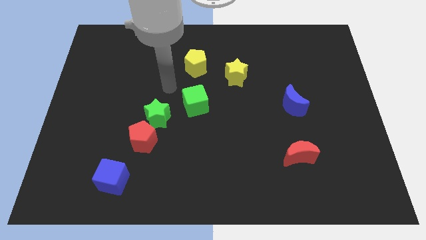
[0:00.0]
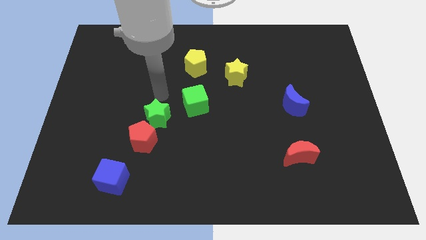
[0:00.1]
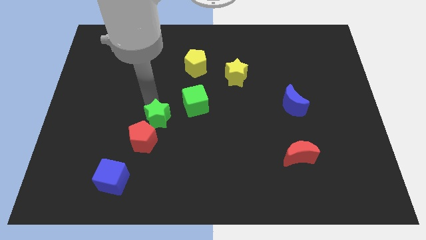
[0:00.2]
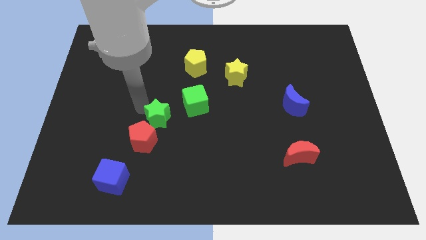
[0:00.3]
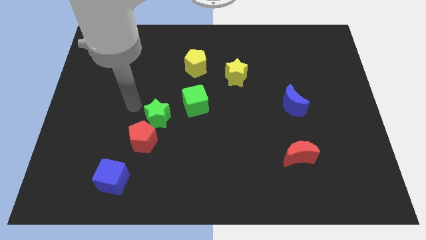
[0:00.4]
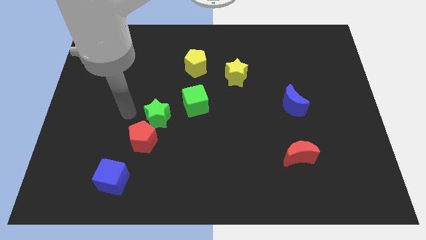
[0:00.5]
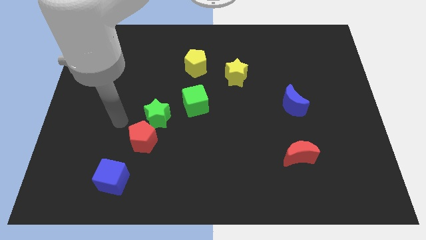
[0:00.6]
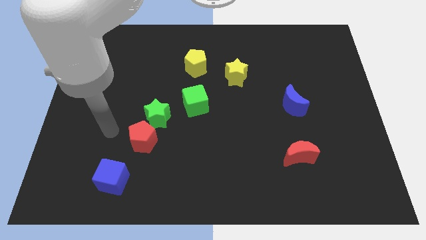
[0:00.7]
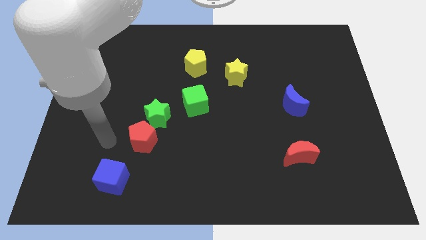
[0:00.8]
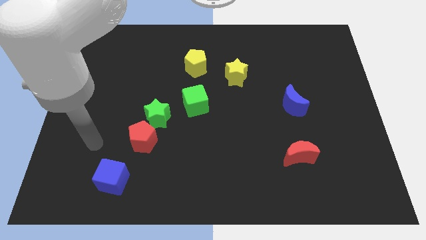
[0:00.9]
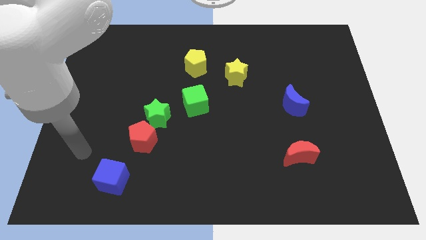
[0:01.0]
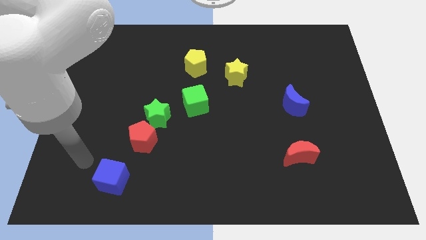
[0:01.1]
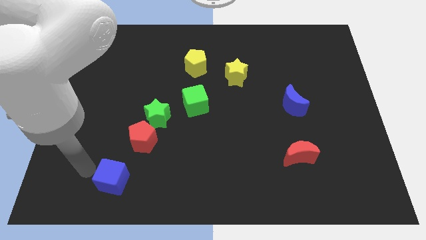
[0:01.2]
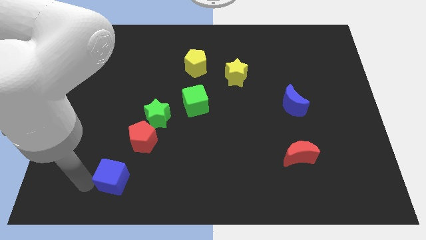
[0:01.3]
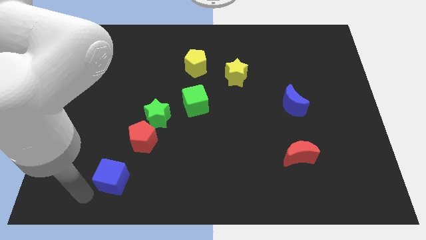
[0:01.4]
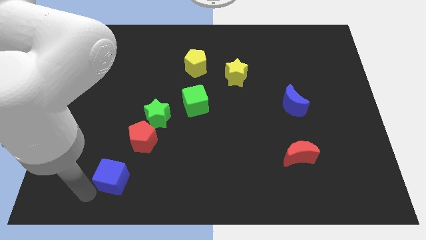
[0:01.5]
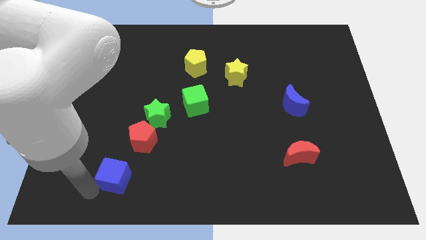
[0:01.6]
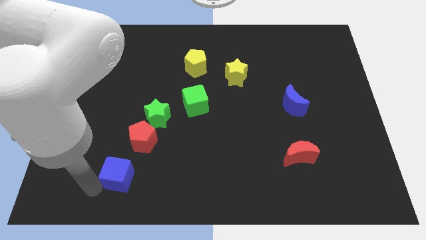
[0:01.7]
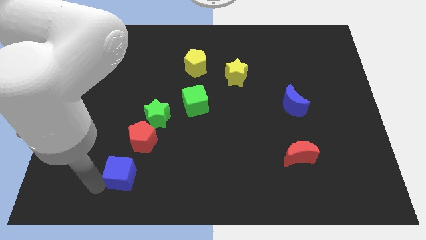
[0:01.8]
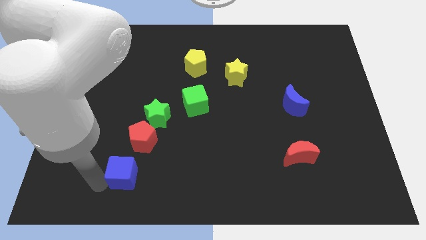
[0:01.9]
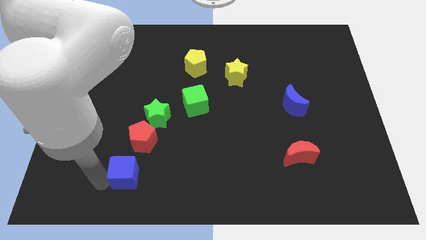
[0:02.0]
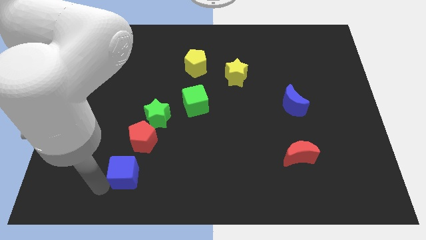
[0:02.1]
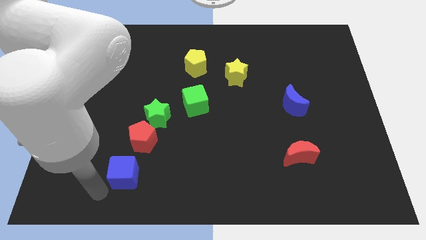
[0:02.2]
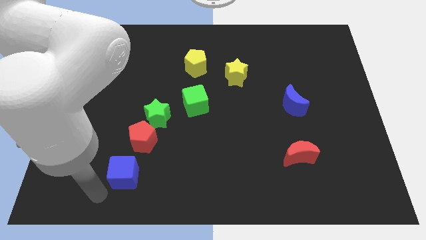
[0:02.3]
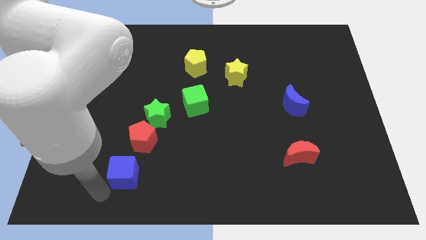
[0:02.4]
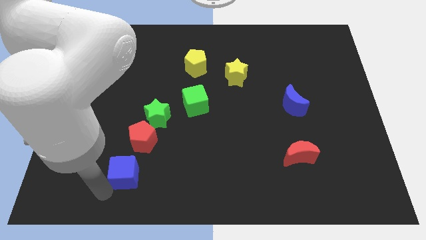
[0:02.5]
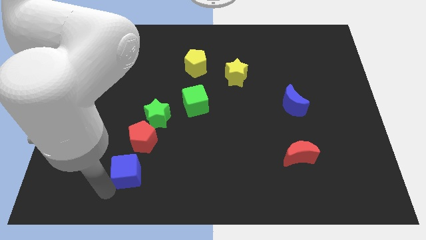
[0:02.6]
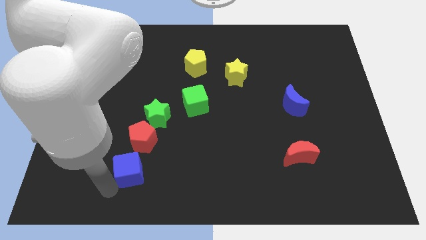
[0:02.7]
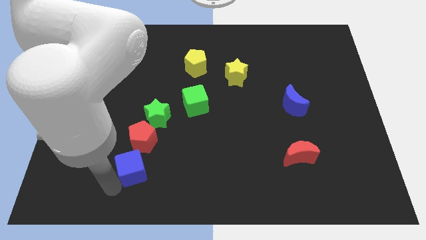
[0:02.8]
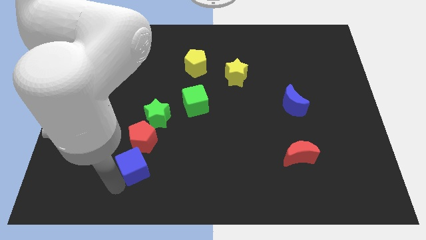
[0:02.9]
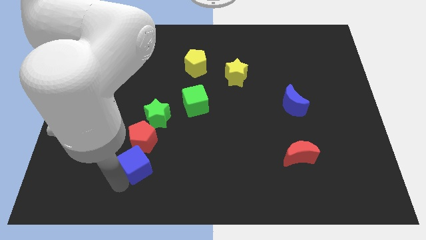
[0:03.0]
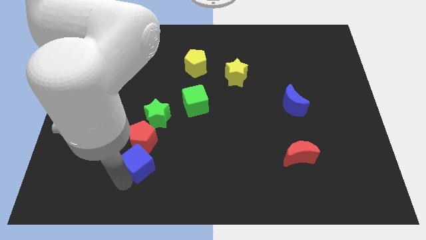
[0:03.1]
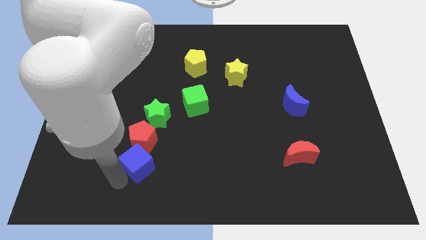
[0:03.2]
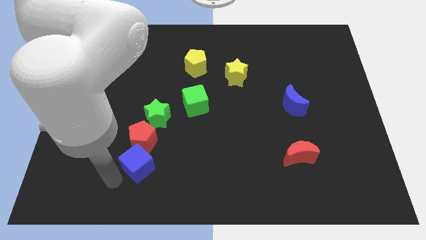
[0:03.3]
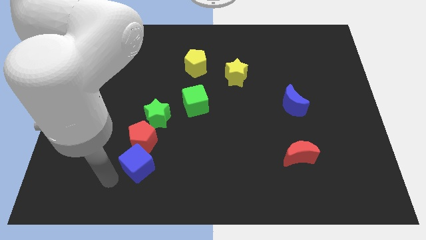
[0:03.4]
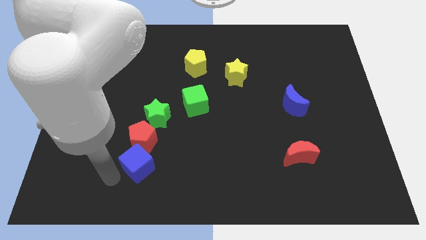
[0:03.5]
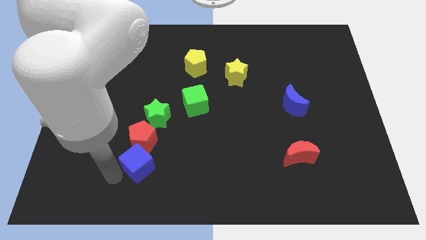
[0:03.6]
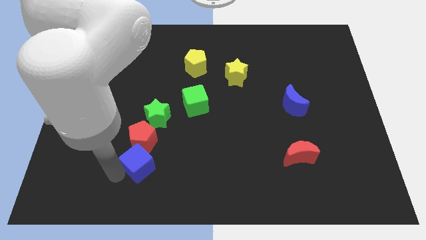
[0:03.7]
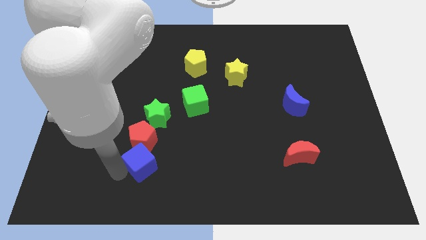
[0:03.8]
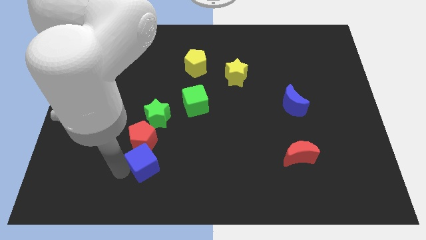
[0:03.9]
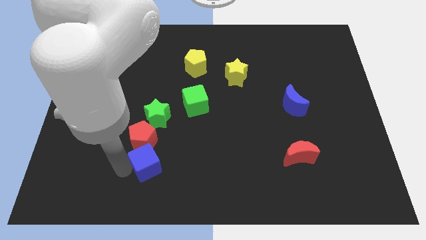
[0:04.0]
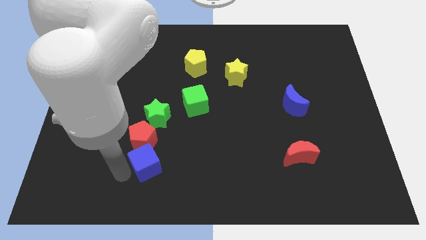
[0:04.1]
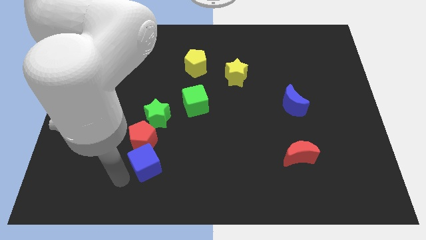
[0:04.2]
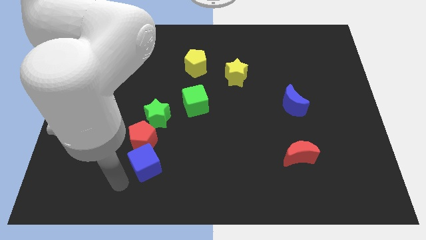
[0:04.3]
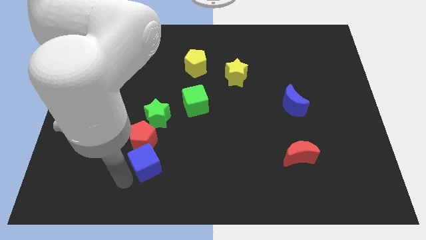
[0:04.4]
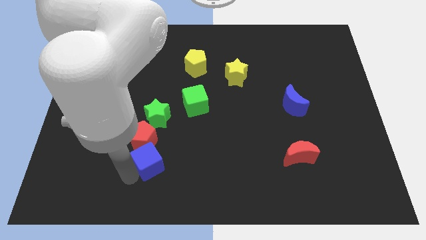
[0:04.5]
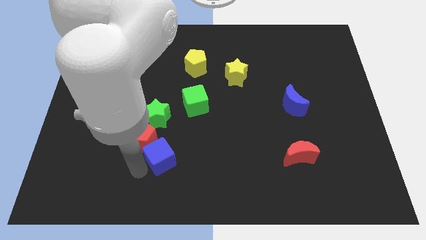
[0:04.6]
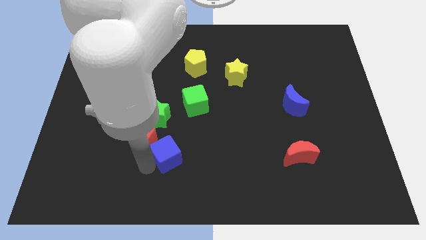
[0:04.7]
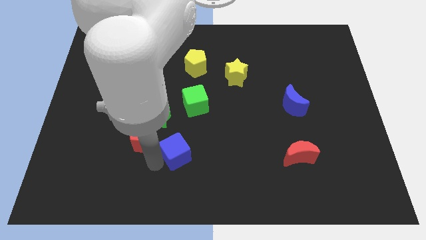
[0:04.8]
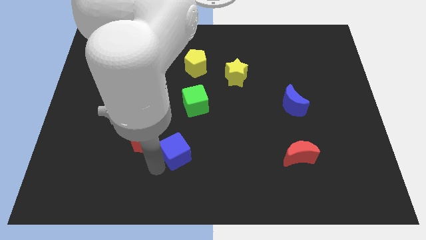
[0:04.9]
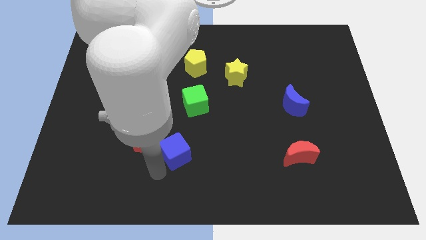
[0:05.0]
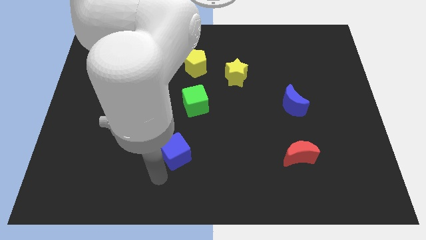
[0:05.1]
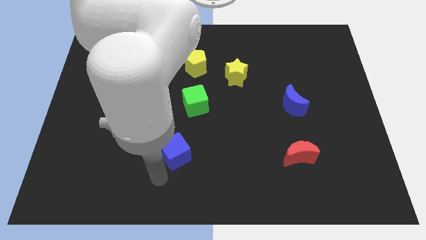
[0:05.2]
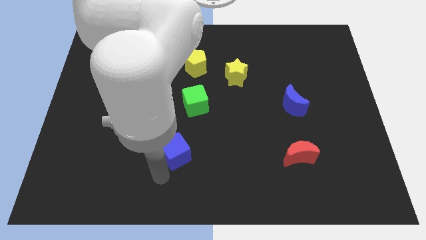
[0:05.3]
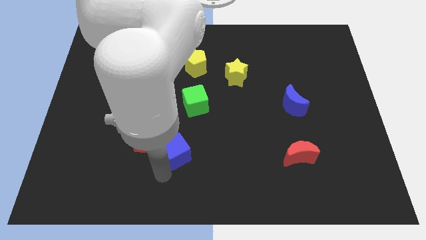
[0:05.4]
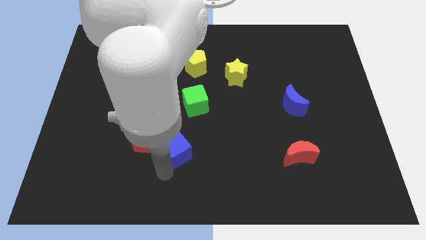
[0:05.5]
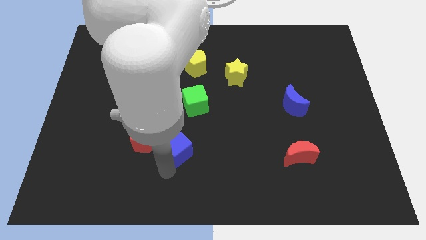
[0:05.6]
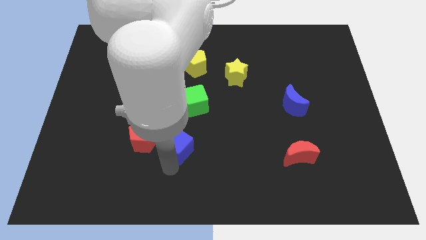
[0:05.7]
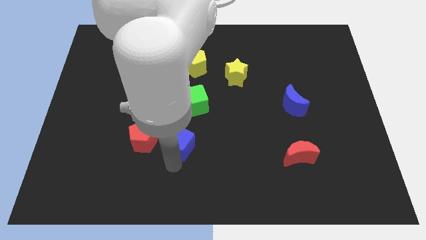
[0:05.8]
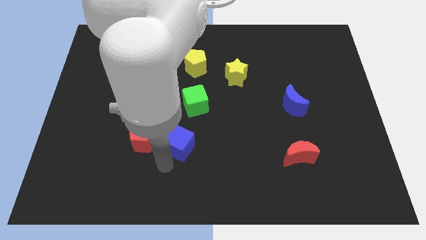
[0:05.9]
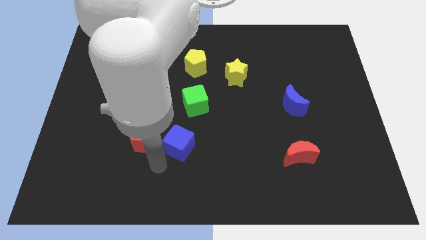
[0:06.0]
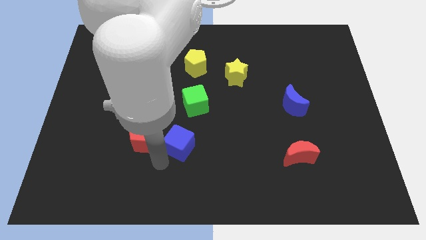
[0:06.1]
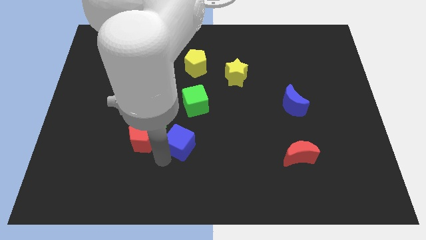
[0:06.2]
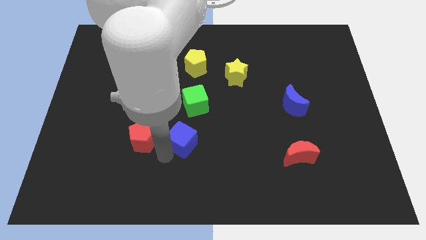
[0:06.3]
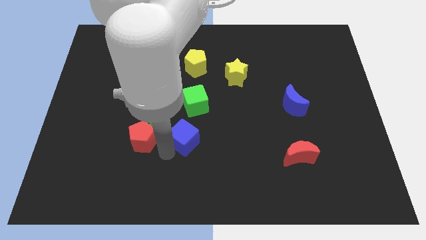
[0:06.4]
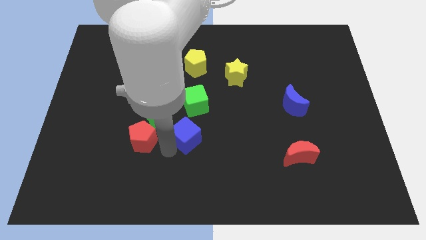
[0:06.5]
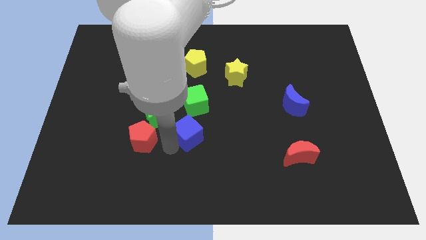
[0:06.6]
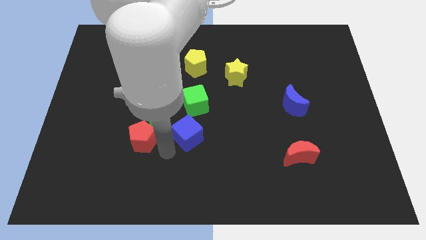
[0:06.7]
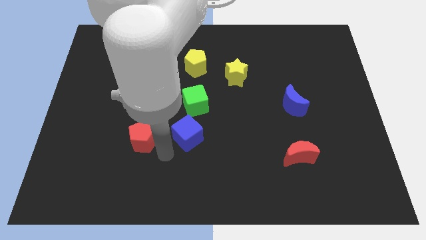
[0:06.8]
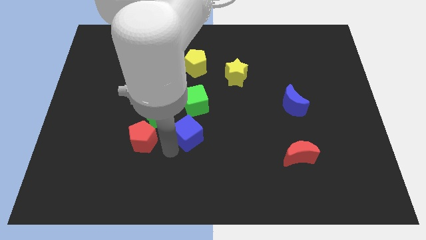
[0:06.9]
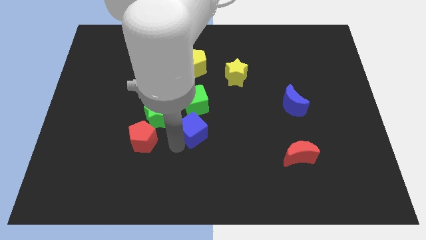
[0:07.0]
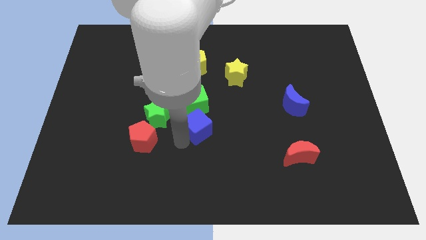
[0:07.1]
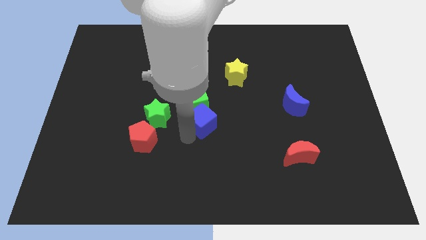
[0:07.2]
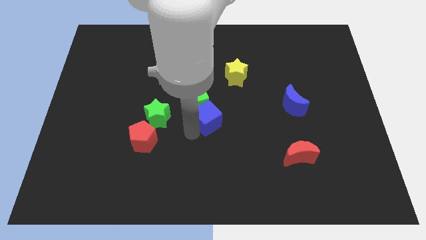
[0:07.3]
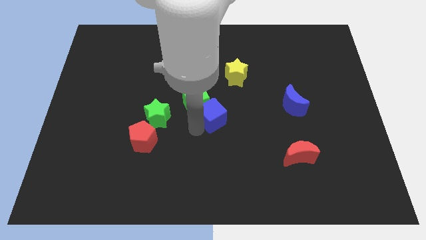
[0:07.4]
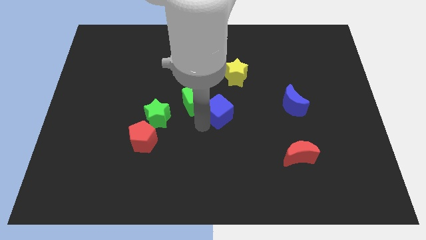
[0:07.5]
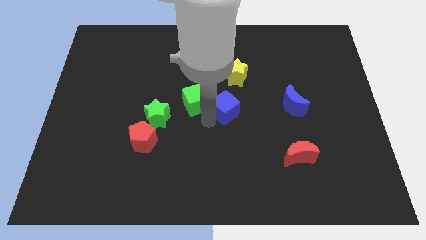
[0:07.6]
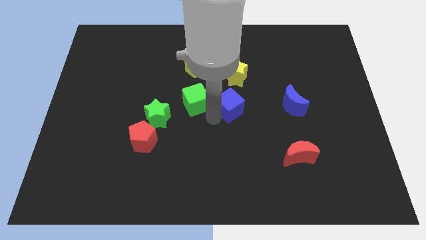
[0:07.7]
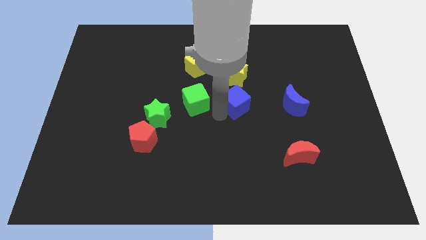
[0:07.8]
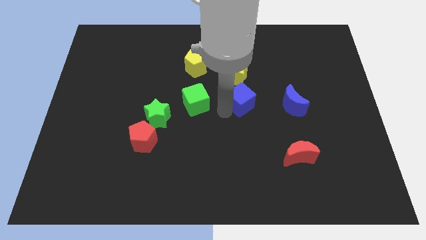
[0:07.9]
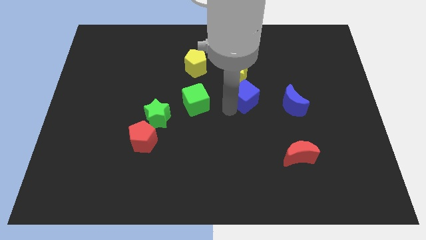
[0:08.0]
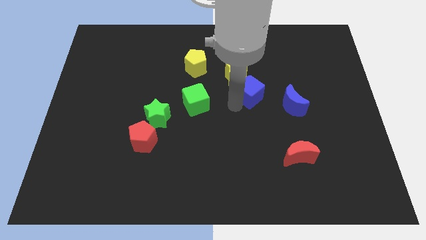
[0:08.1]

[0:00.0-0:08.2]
move the blue cube diagonally up and to the left of the blue moon
